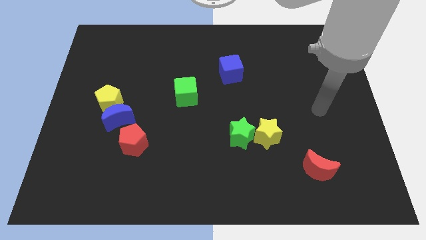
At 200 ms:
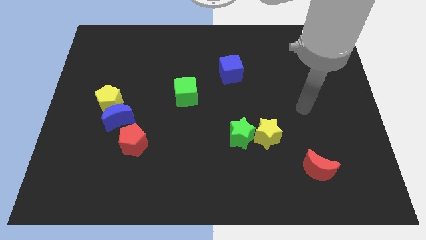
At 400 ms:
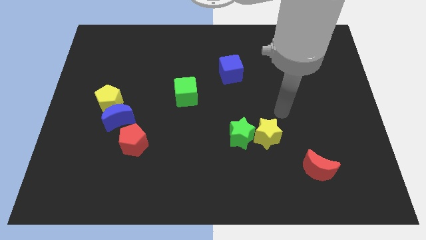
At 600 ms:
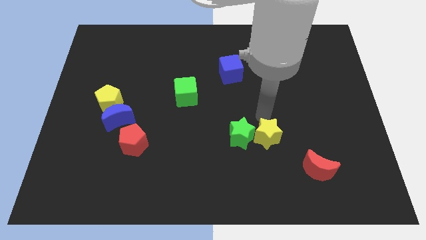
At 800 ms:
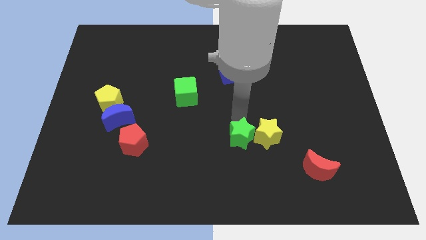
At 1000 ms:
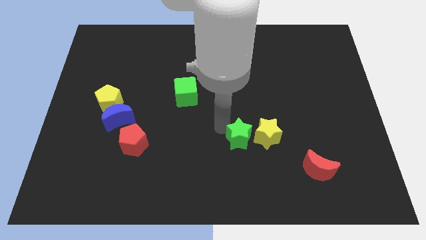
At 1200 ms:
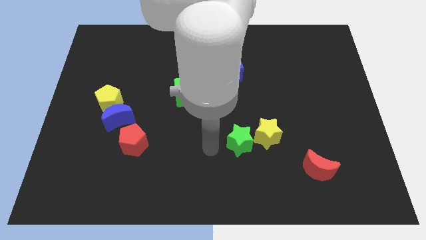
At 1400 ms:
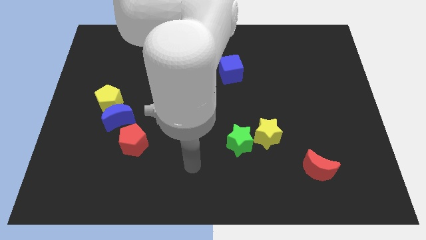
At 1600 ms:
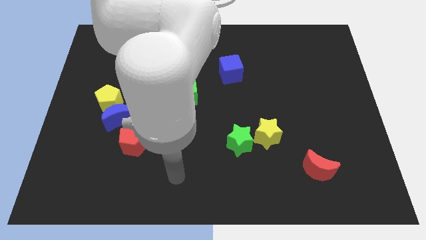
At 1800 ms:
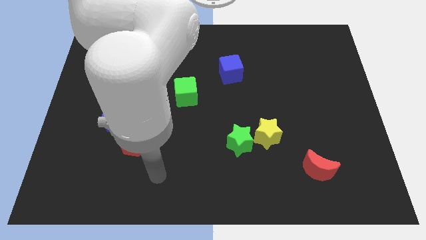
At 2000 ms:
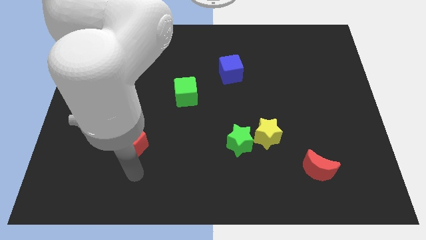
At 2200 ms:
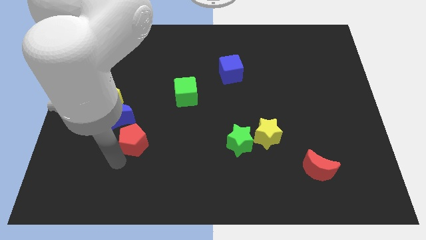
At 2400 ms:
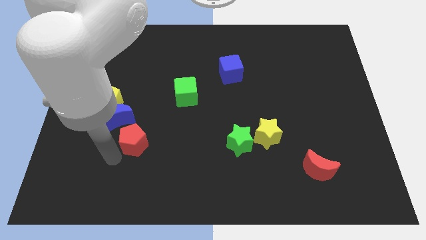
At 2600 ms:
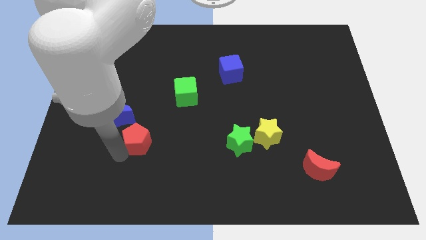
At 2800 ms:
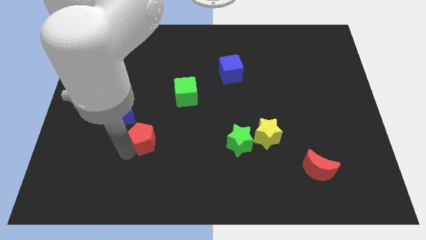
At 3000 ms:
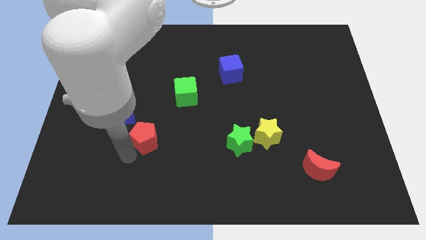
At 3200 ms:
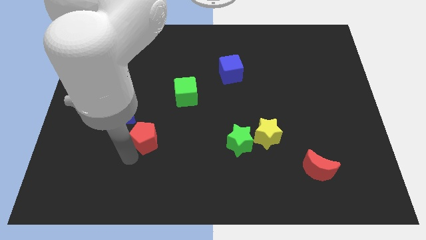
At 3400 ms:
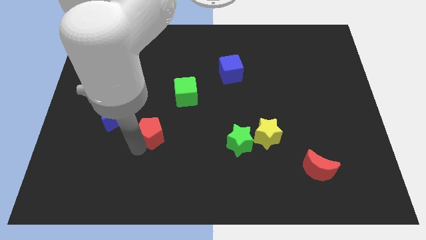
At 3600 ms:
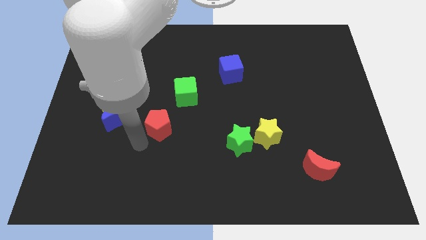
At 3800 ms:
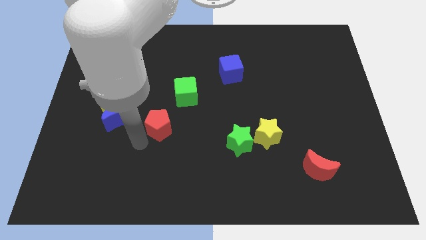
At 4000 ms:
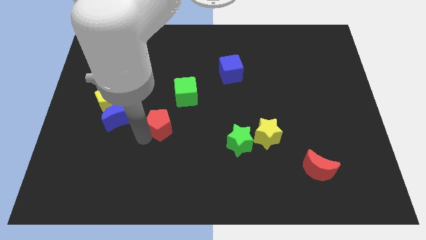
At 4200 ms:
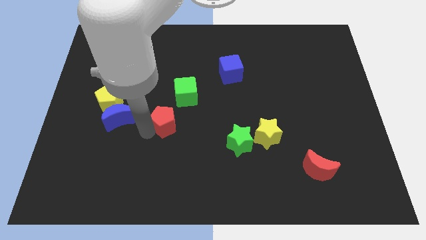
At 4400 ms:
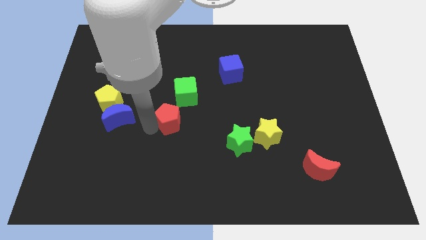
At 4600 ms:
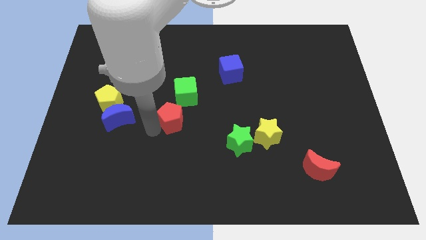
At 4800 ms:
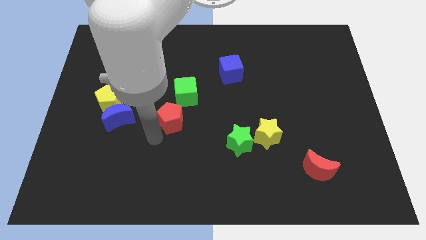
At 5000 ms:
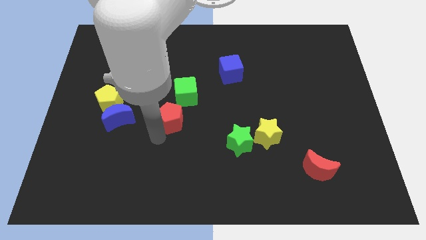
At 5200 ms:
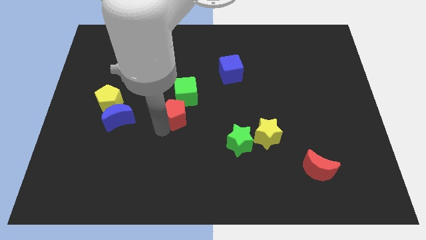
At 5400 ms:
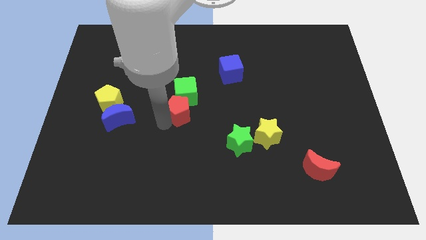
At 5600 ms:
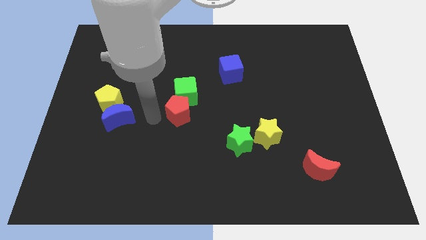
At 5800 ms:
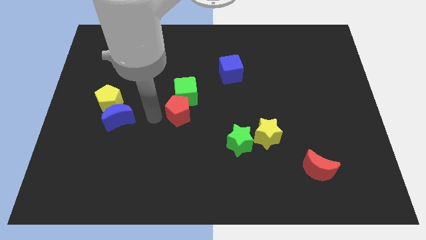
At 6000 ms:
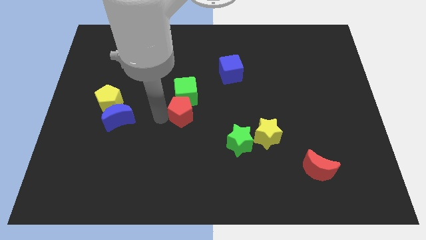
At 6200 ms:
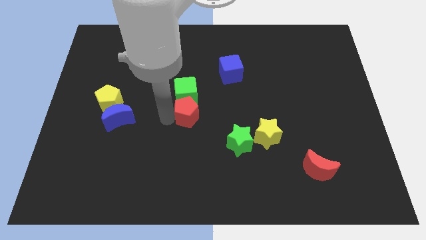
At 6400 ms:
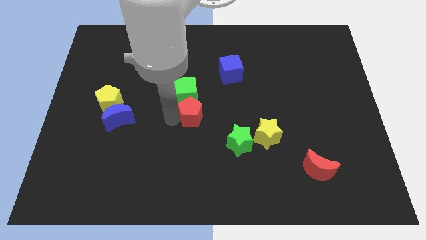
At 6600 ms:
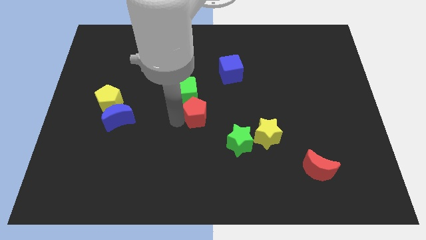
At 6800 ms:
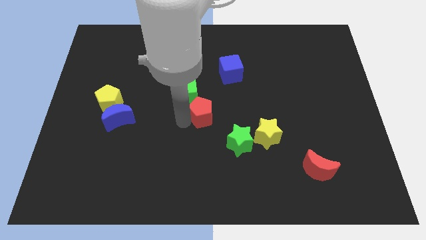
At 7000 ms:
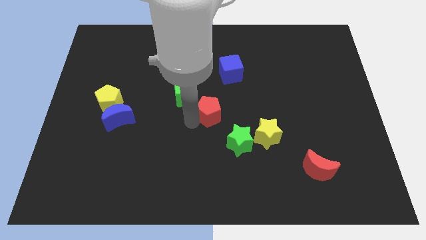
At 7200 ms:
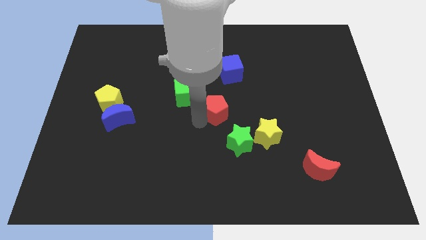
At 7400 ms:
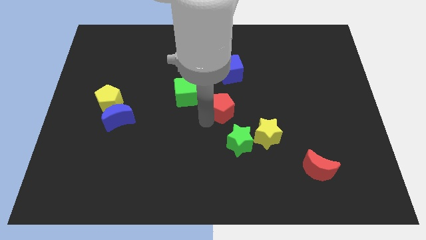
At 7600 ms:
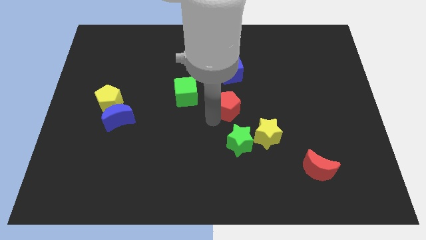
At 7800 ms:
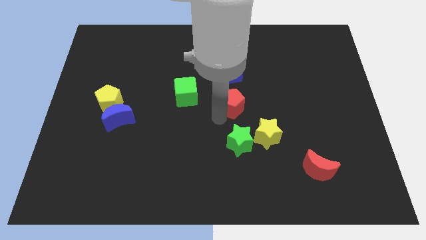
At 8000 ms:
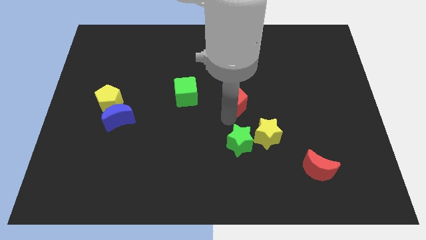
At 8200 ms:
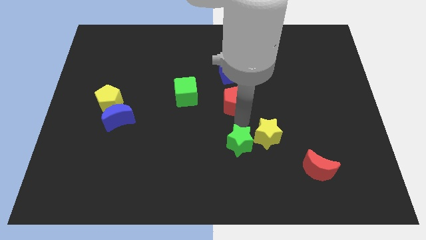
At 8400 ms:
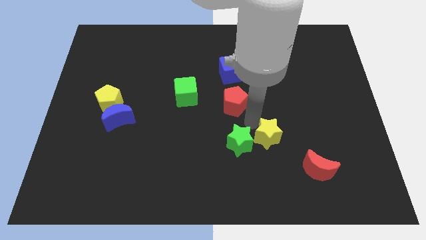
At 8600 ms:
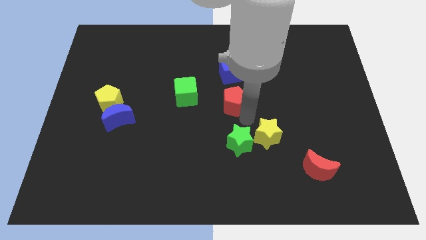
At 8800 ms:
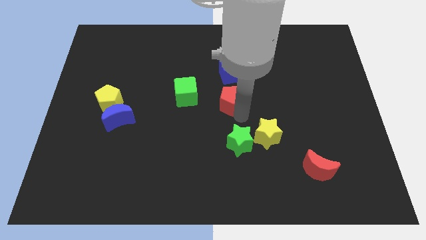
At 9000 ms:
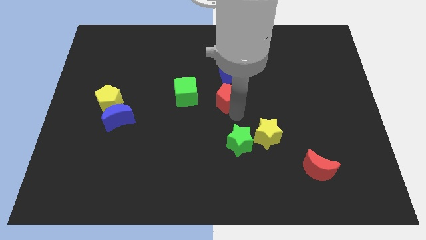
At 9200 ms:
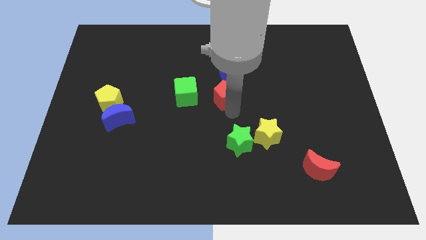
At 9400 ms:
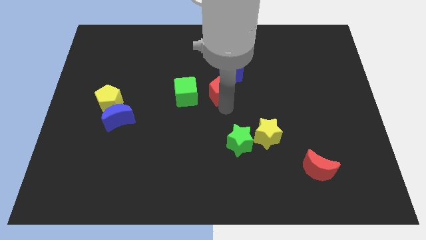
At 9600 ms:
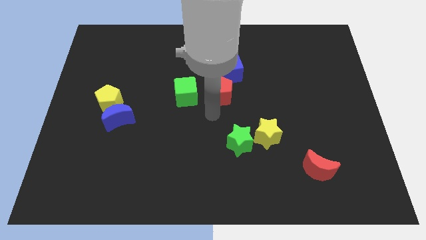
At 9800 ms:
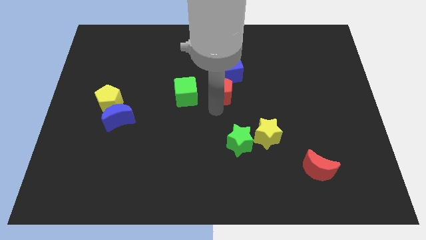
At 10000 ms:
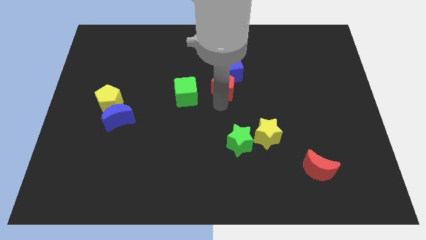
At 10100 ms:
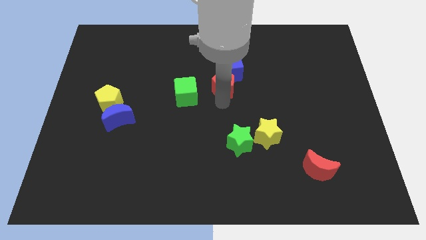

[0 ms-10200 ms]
put the red pentagon close to the blue cube

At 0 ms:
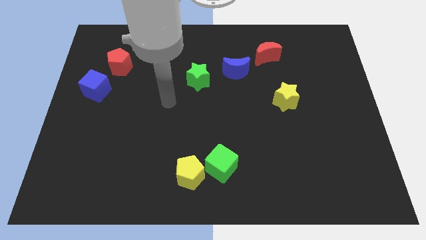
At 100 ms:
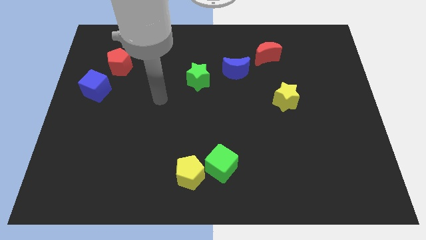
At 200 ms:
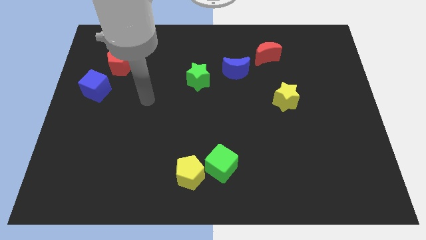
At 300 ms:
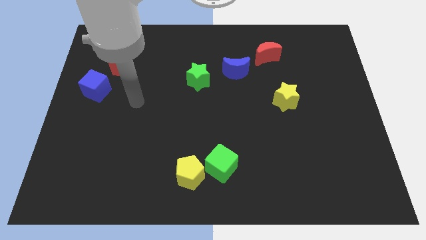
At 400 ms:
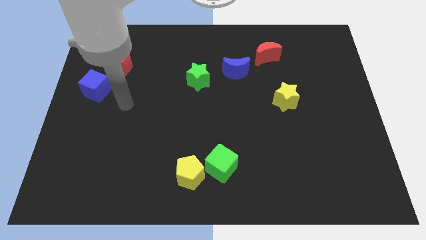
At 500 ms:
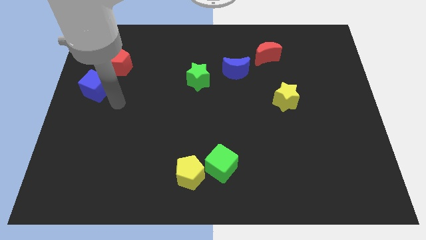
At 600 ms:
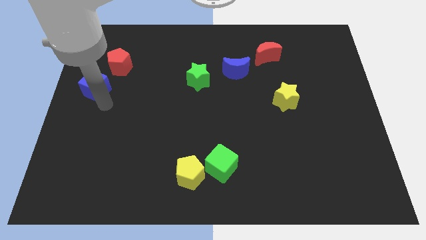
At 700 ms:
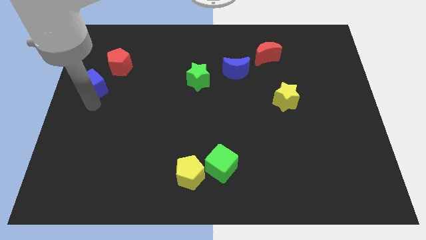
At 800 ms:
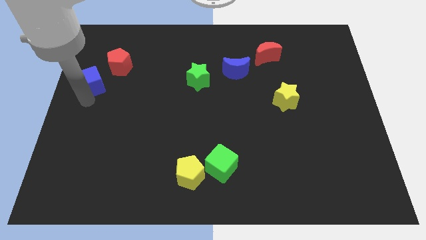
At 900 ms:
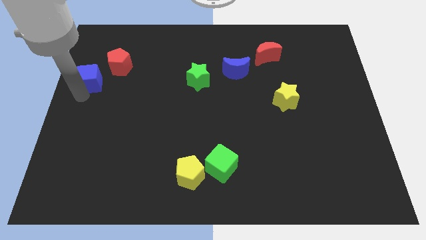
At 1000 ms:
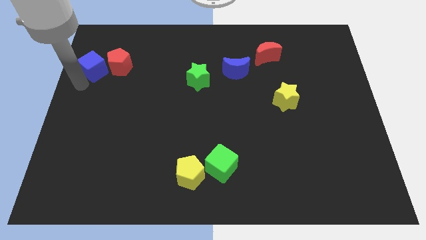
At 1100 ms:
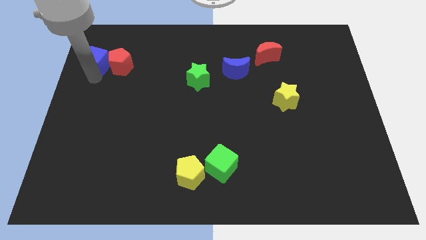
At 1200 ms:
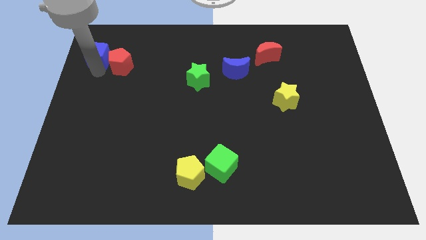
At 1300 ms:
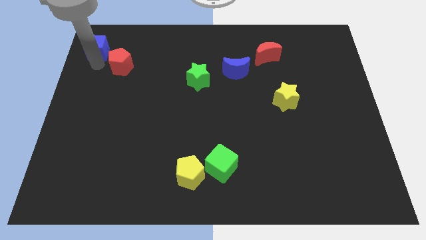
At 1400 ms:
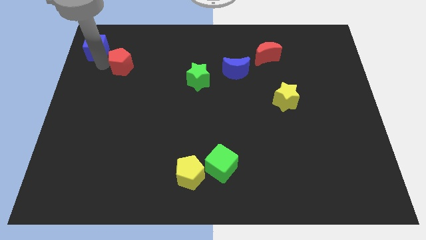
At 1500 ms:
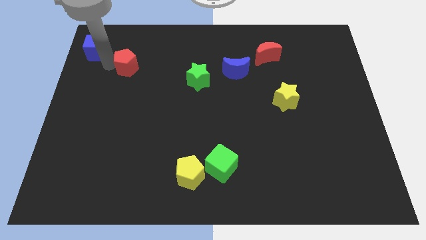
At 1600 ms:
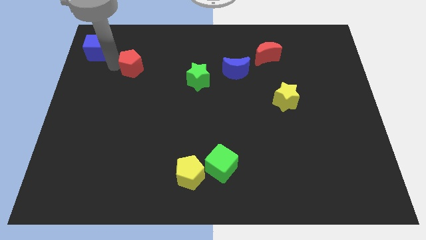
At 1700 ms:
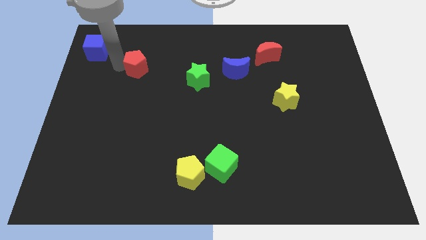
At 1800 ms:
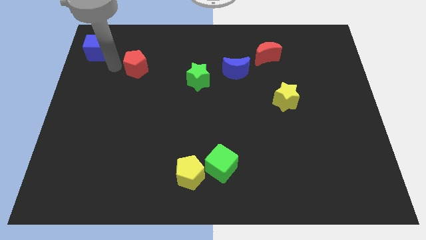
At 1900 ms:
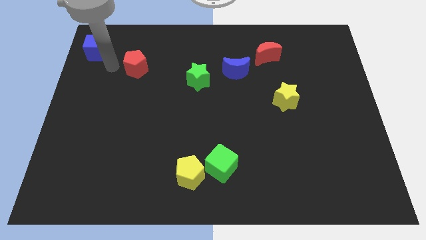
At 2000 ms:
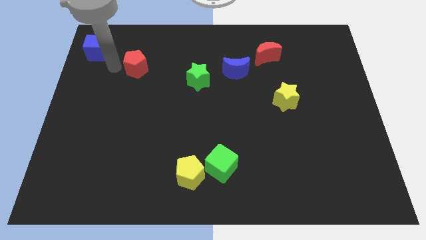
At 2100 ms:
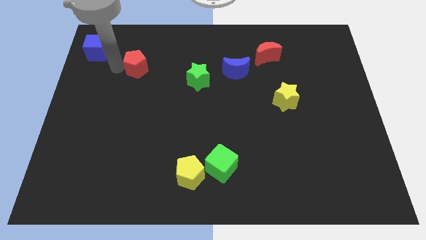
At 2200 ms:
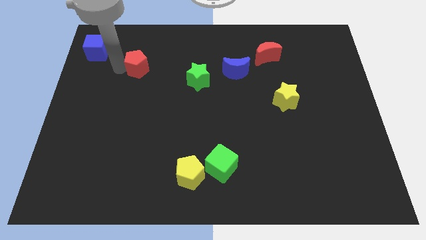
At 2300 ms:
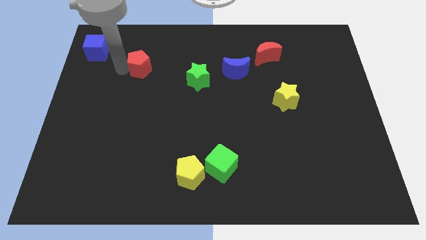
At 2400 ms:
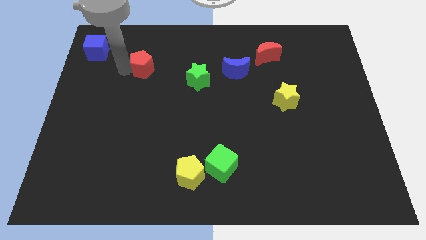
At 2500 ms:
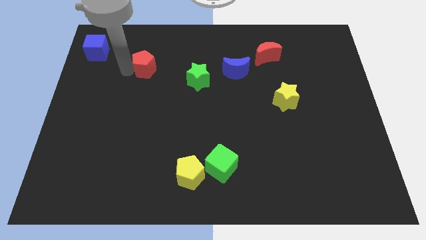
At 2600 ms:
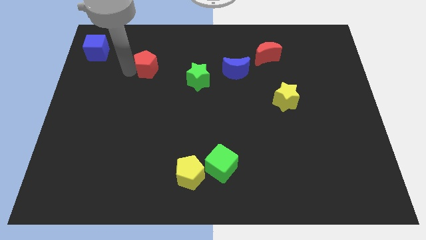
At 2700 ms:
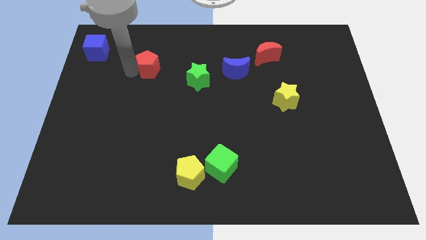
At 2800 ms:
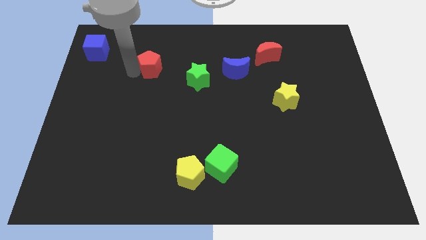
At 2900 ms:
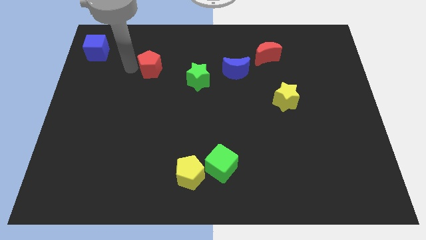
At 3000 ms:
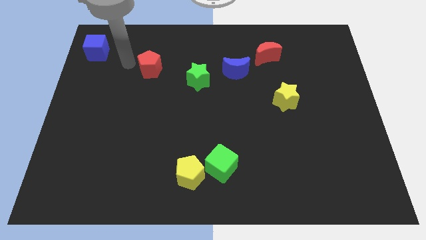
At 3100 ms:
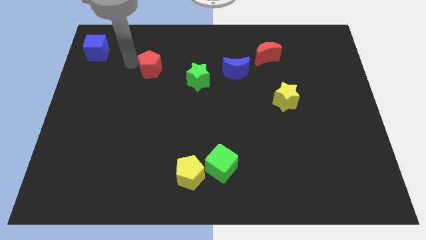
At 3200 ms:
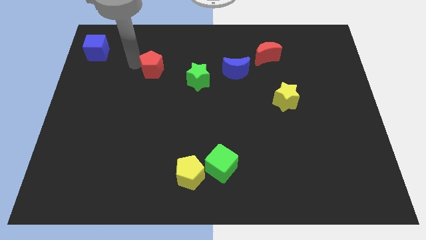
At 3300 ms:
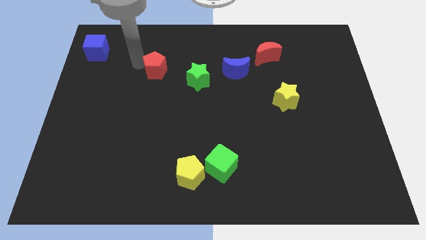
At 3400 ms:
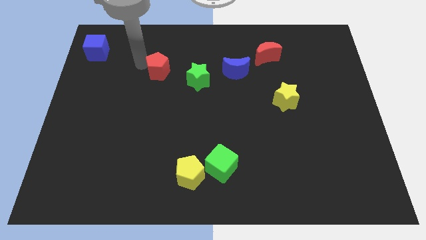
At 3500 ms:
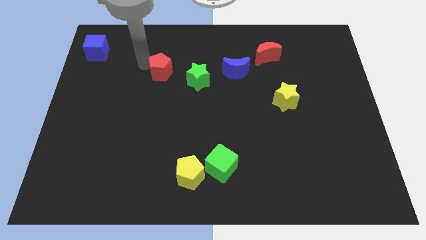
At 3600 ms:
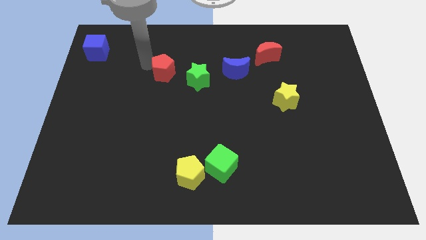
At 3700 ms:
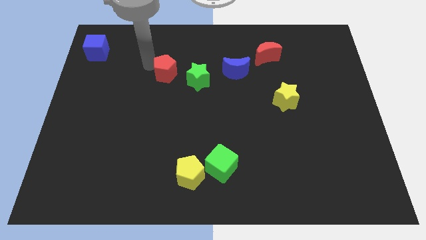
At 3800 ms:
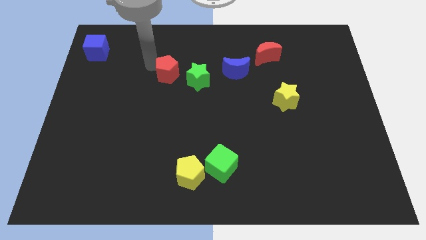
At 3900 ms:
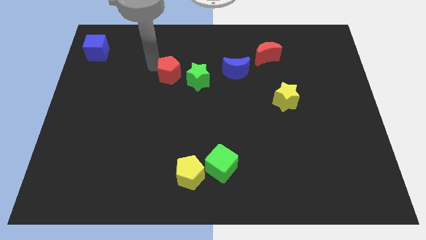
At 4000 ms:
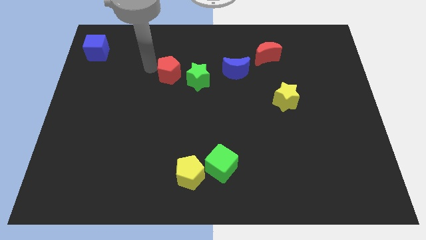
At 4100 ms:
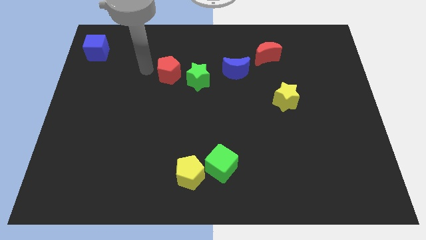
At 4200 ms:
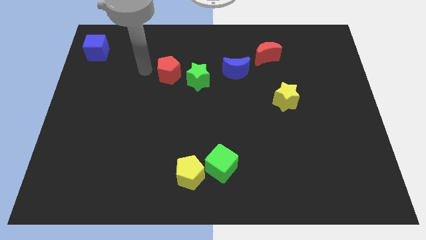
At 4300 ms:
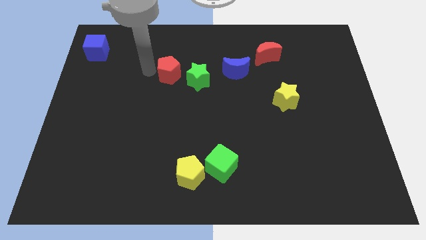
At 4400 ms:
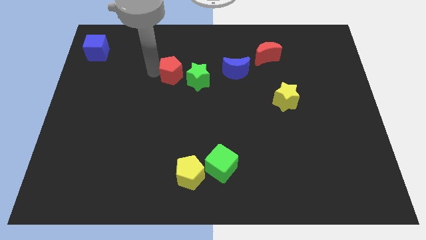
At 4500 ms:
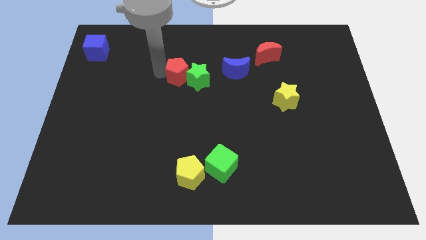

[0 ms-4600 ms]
put the red pentagon towards the green star
